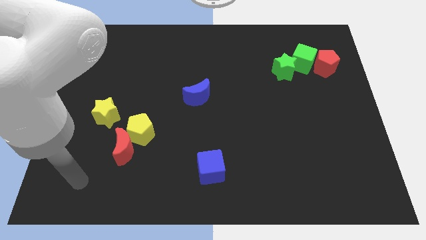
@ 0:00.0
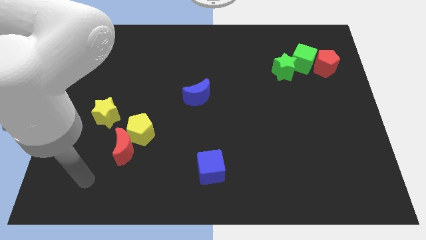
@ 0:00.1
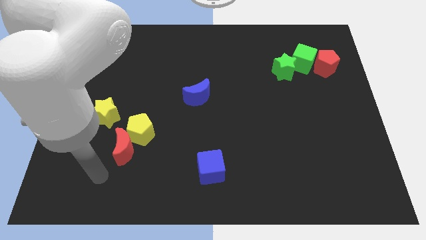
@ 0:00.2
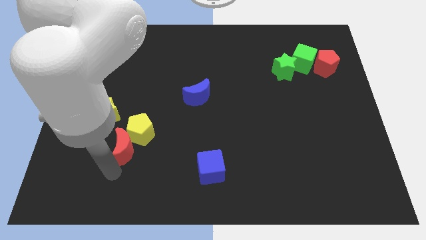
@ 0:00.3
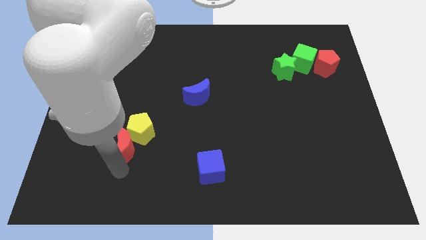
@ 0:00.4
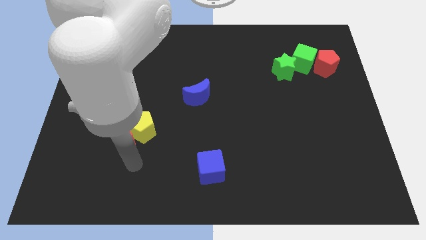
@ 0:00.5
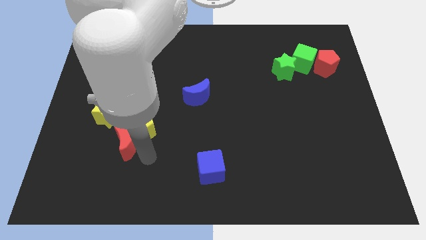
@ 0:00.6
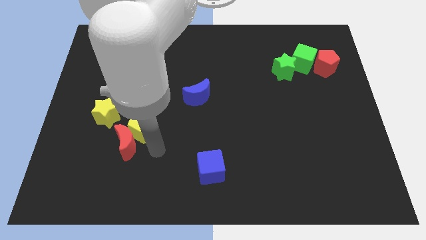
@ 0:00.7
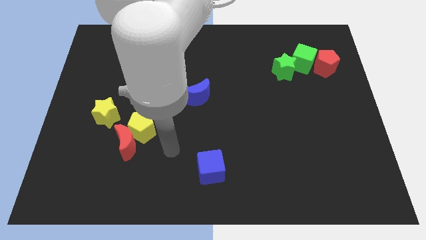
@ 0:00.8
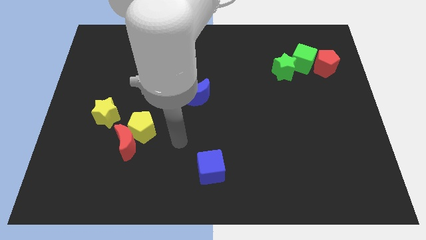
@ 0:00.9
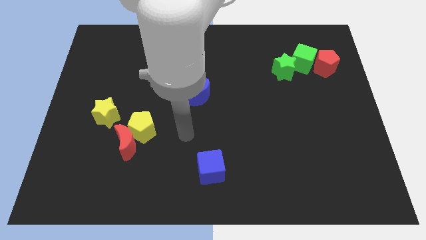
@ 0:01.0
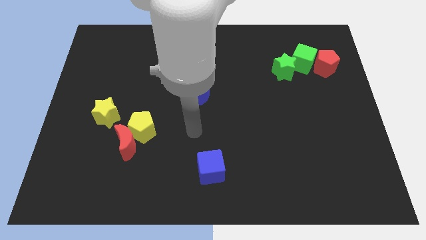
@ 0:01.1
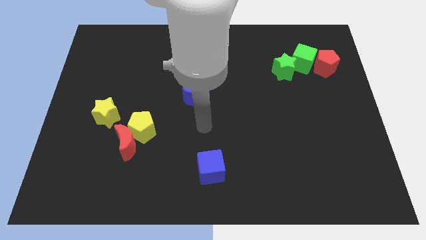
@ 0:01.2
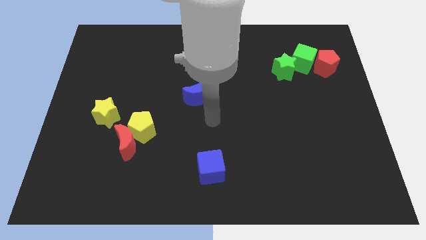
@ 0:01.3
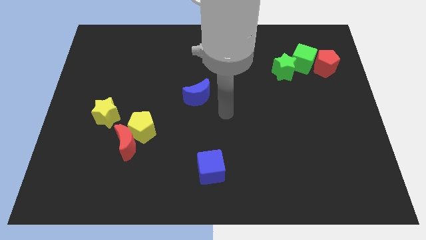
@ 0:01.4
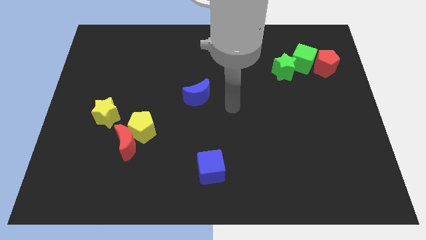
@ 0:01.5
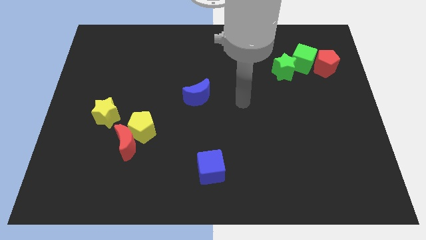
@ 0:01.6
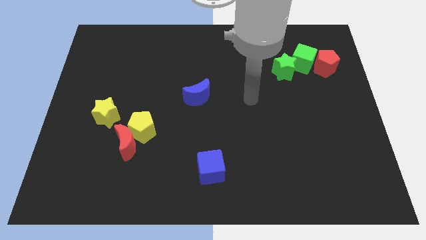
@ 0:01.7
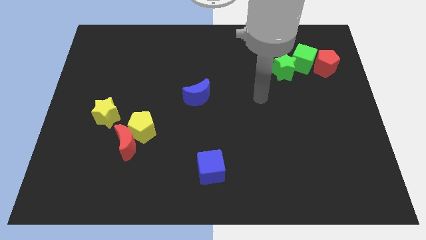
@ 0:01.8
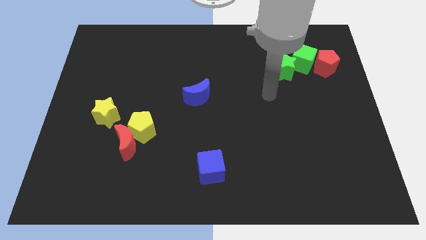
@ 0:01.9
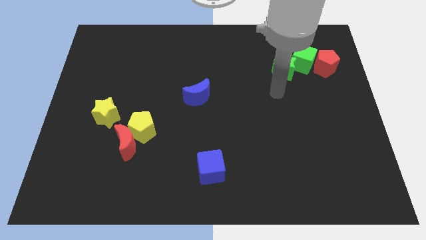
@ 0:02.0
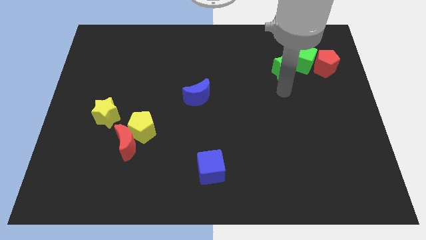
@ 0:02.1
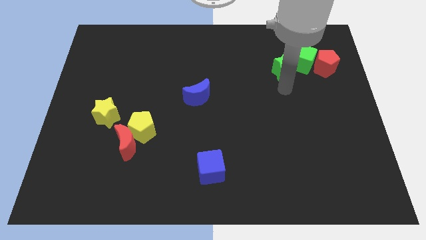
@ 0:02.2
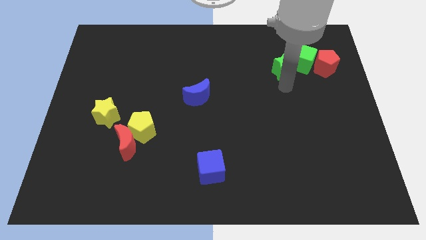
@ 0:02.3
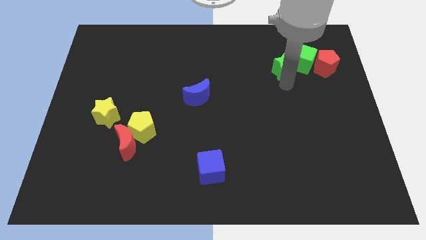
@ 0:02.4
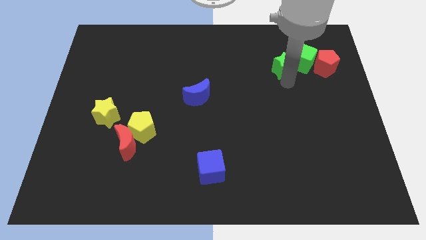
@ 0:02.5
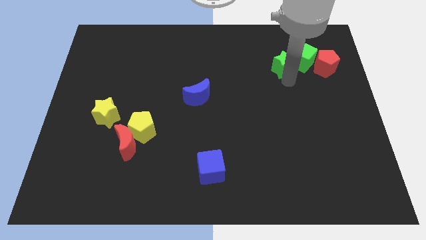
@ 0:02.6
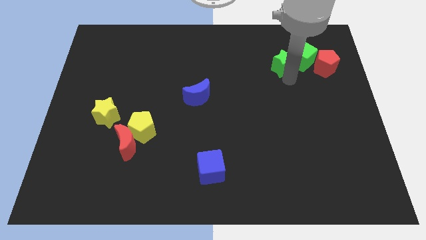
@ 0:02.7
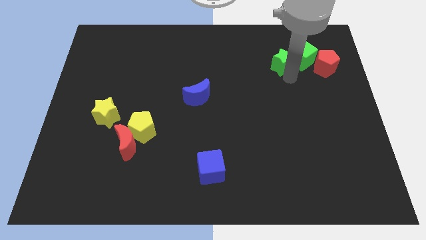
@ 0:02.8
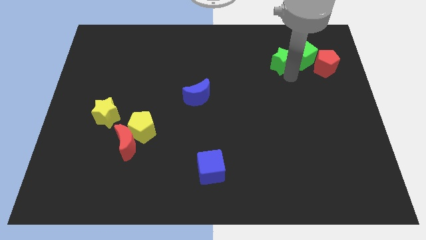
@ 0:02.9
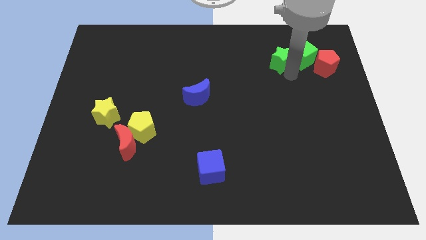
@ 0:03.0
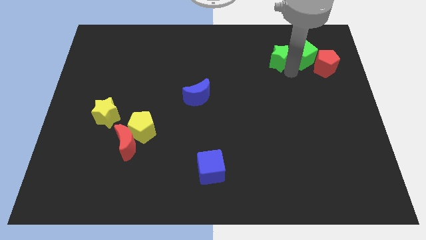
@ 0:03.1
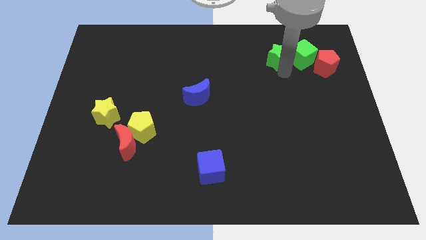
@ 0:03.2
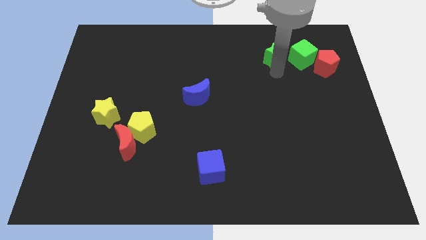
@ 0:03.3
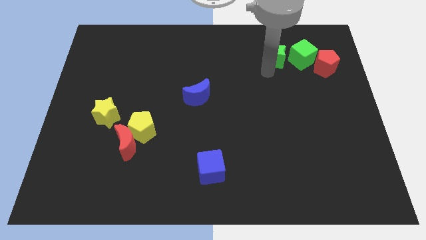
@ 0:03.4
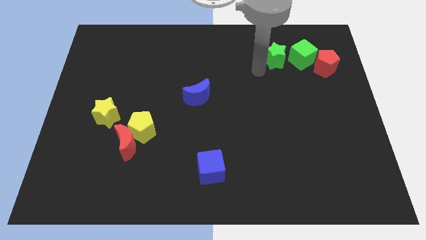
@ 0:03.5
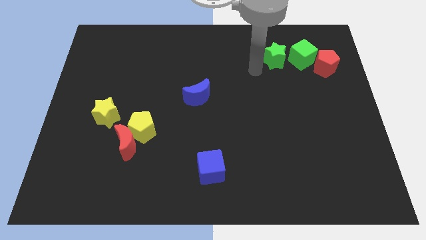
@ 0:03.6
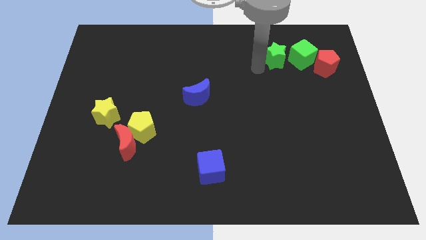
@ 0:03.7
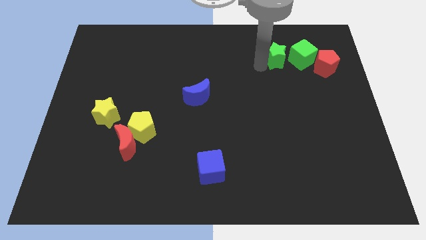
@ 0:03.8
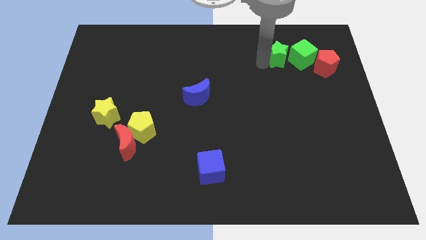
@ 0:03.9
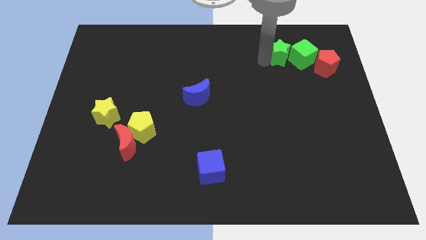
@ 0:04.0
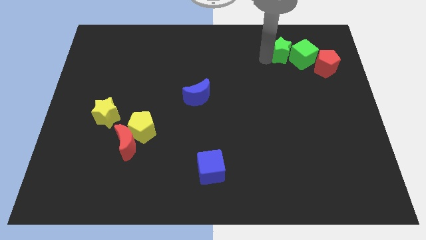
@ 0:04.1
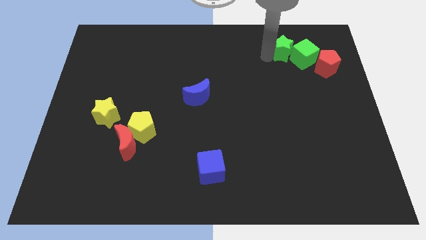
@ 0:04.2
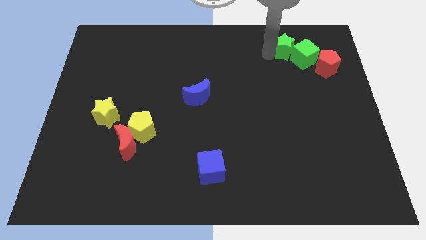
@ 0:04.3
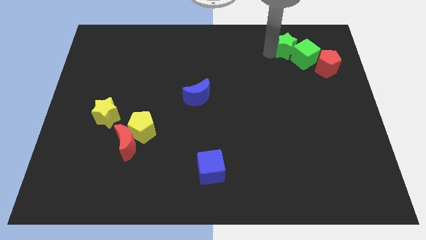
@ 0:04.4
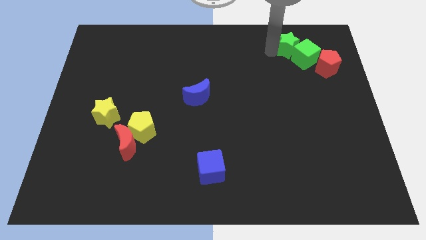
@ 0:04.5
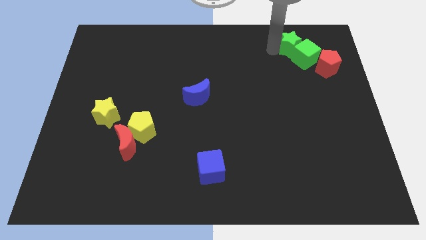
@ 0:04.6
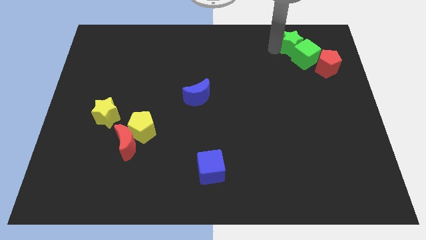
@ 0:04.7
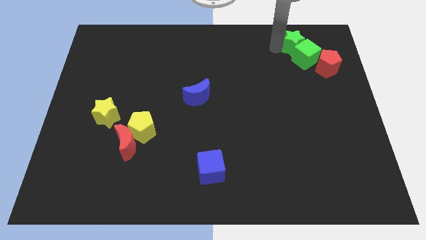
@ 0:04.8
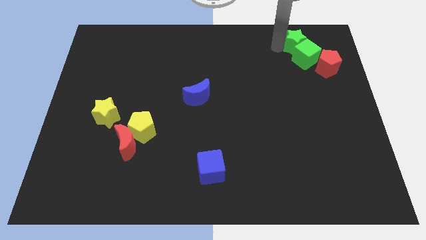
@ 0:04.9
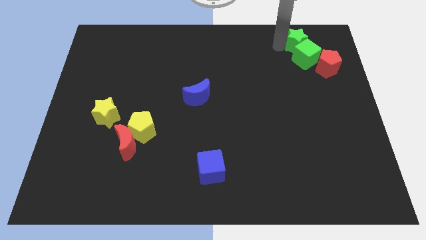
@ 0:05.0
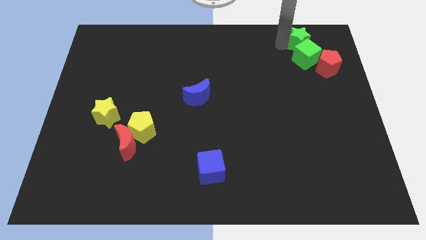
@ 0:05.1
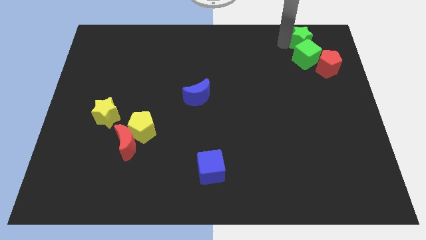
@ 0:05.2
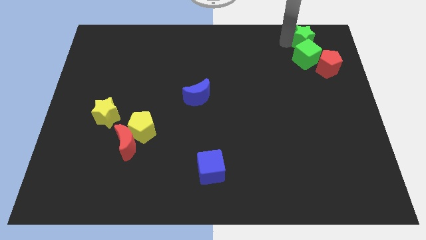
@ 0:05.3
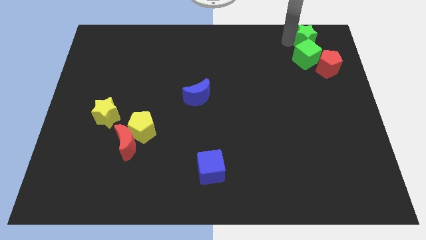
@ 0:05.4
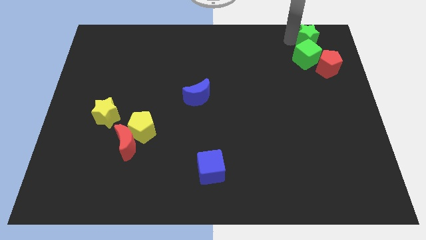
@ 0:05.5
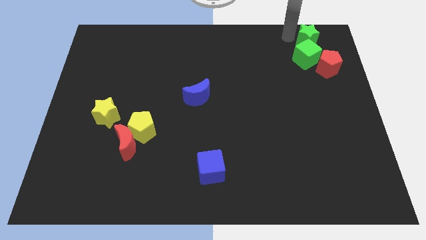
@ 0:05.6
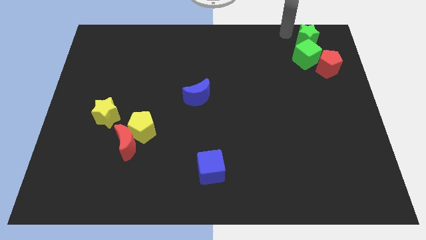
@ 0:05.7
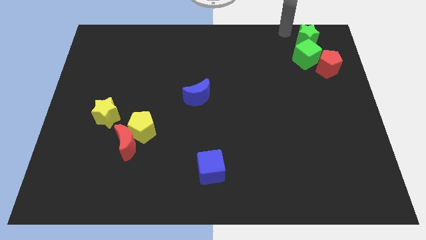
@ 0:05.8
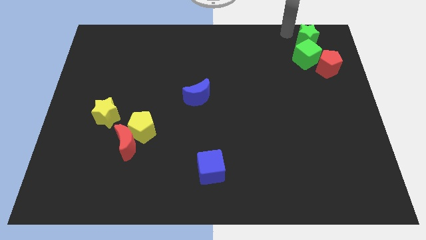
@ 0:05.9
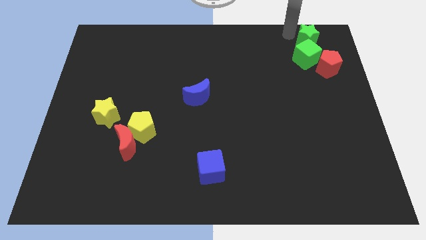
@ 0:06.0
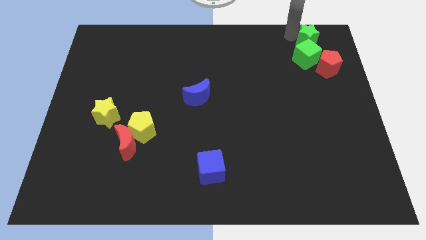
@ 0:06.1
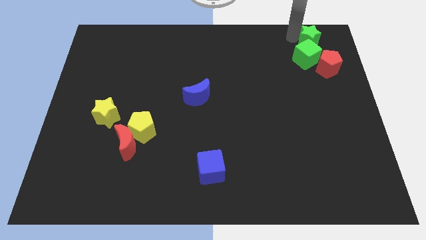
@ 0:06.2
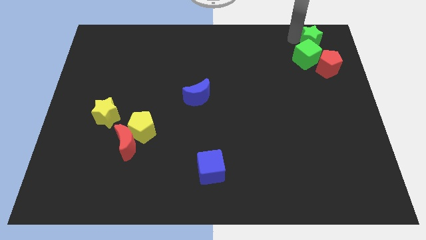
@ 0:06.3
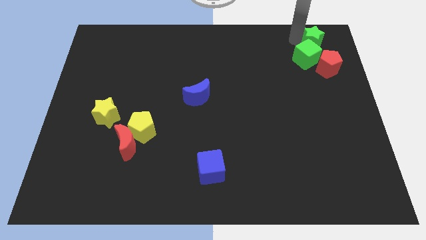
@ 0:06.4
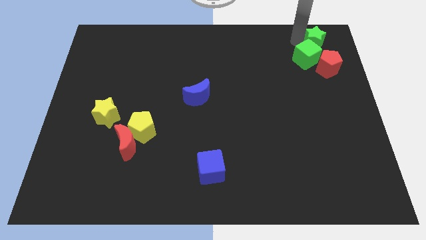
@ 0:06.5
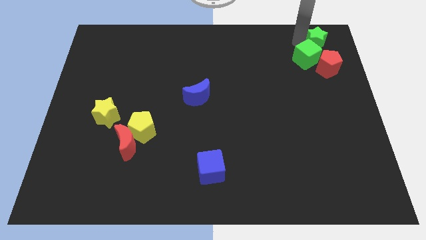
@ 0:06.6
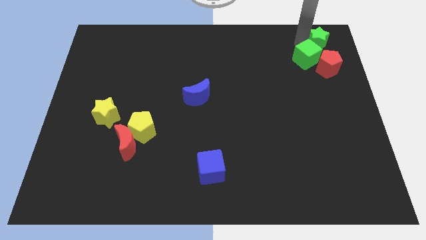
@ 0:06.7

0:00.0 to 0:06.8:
move the green star to the top right

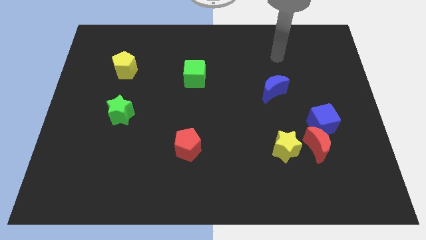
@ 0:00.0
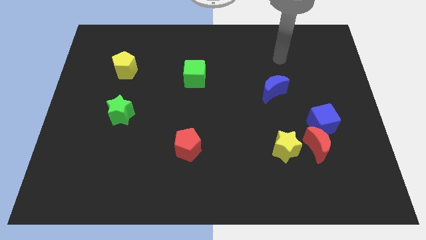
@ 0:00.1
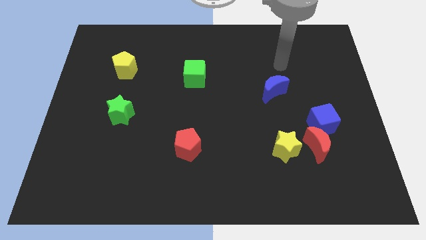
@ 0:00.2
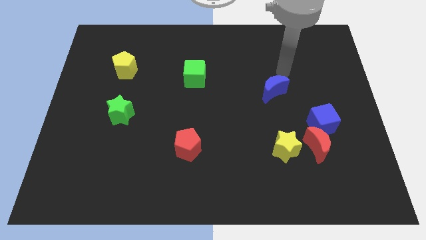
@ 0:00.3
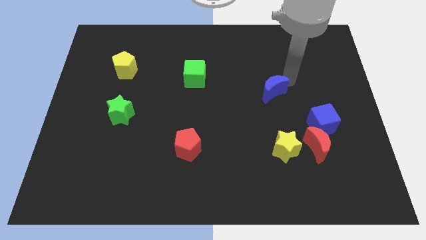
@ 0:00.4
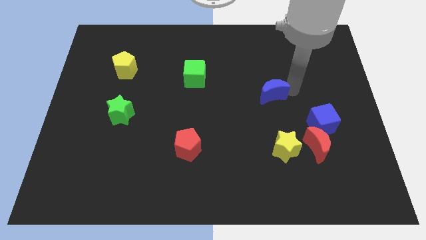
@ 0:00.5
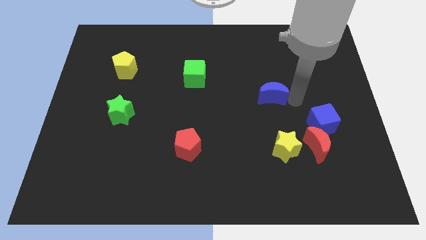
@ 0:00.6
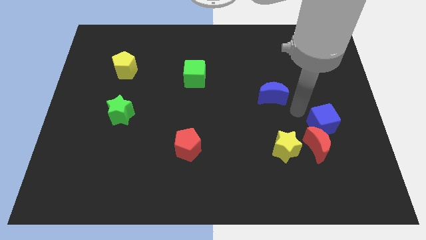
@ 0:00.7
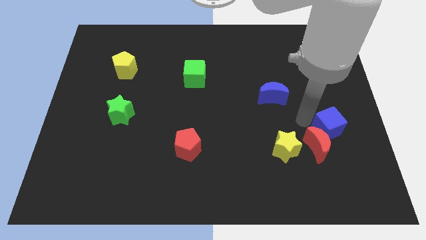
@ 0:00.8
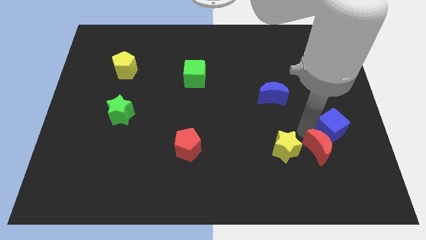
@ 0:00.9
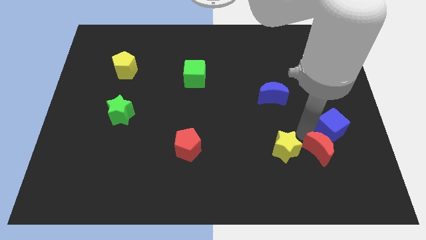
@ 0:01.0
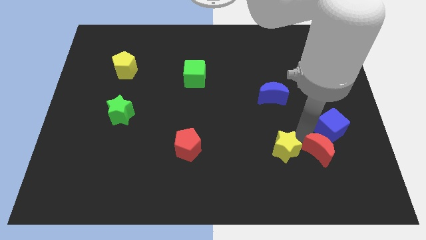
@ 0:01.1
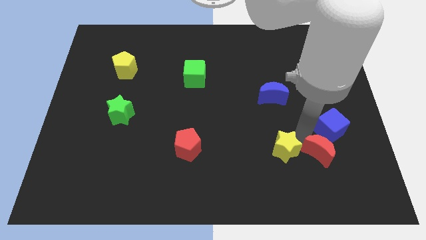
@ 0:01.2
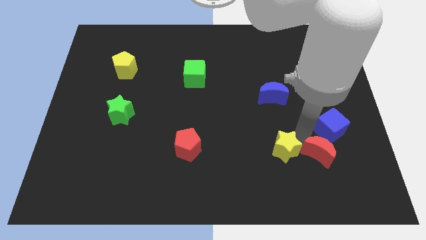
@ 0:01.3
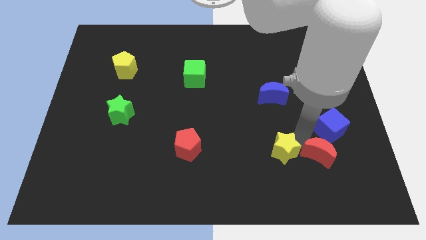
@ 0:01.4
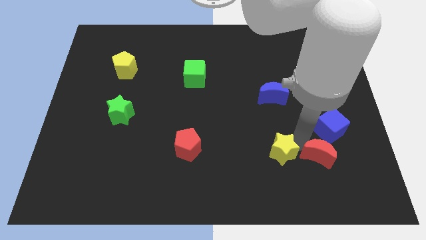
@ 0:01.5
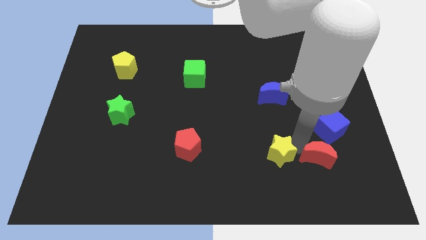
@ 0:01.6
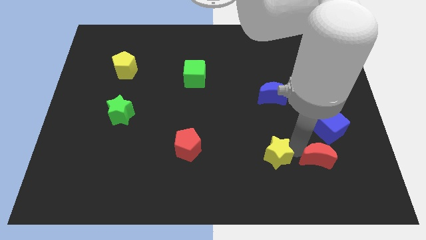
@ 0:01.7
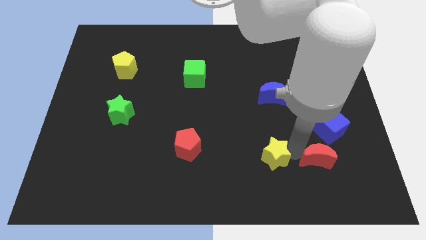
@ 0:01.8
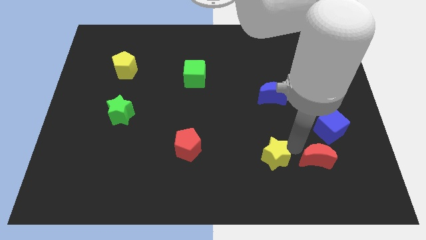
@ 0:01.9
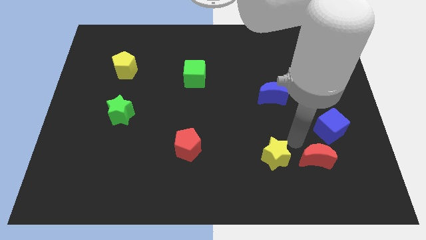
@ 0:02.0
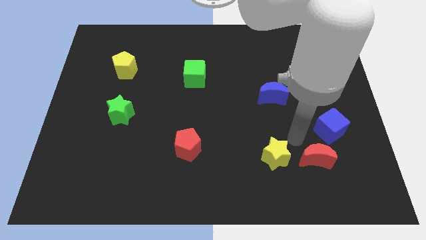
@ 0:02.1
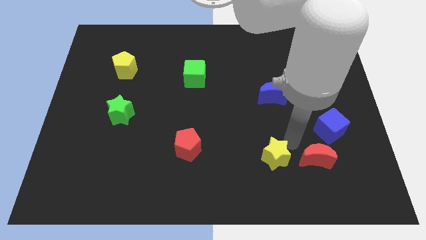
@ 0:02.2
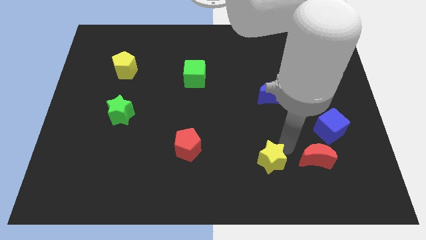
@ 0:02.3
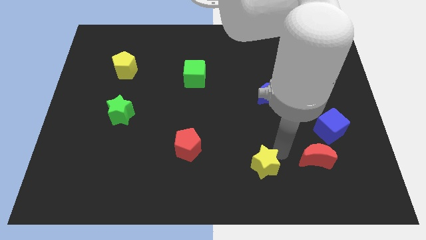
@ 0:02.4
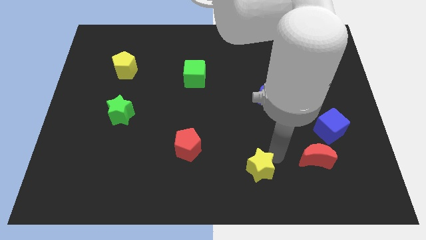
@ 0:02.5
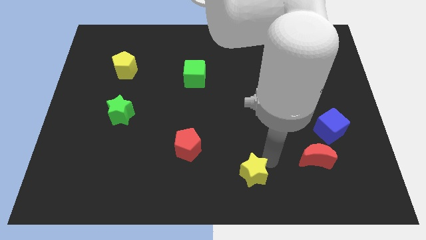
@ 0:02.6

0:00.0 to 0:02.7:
move the yellow star to the bottom side
